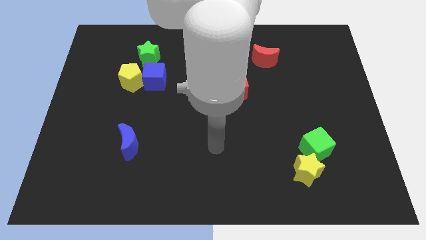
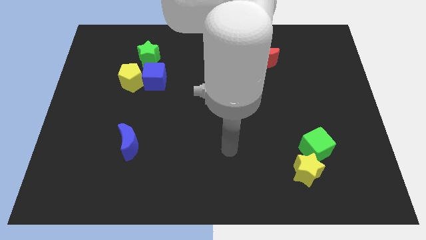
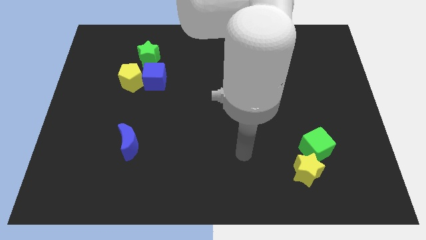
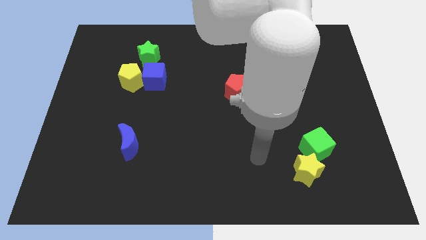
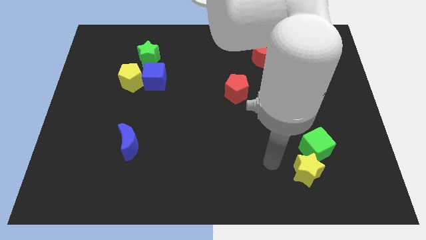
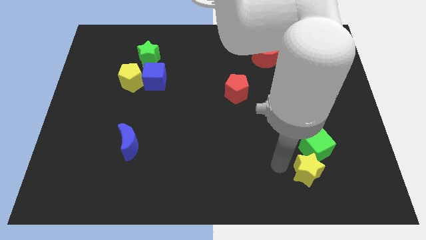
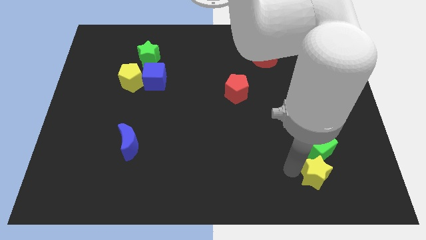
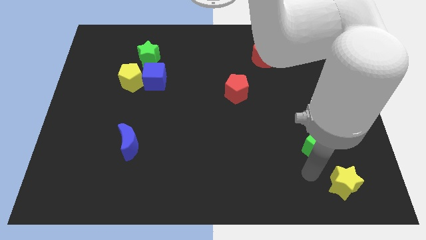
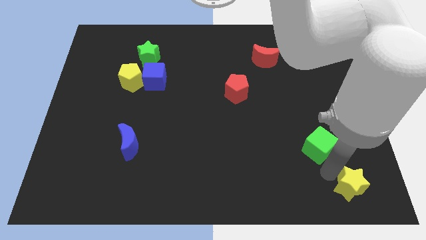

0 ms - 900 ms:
move the green cube away from the yellow star

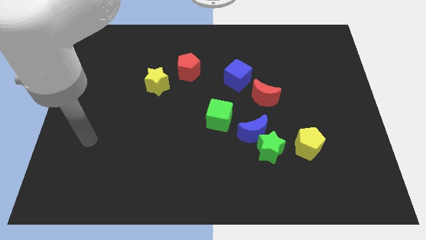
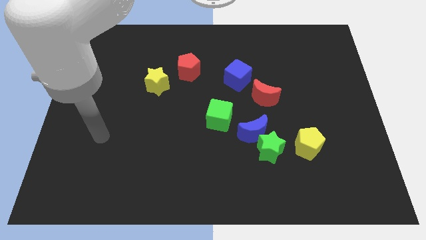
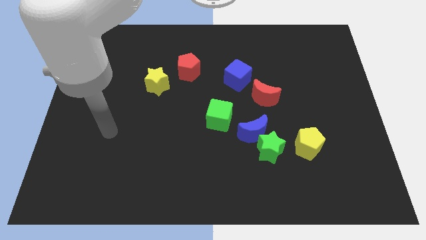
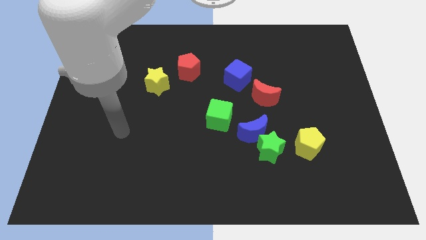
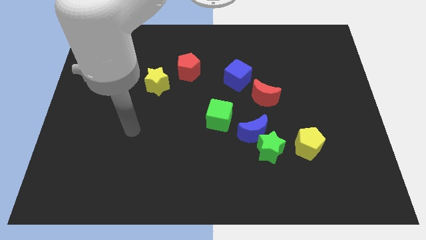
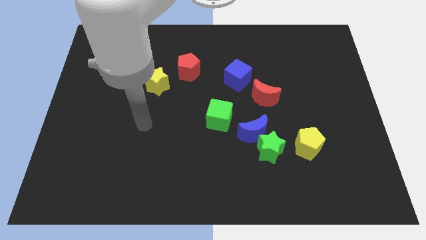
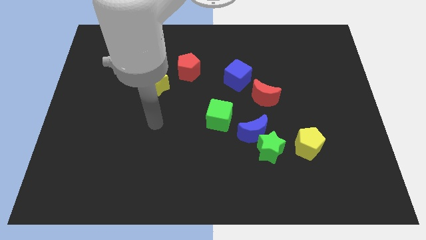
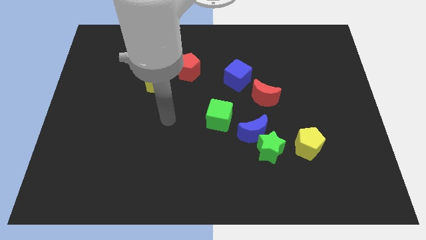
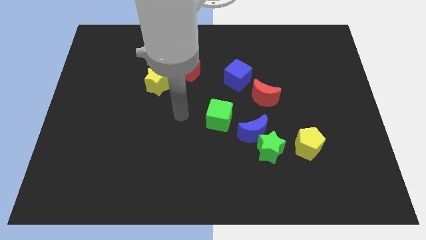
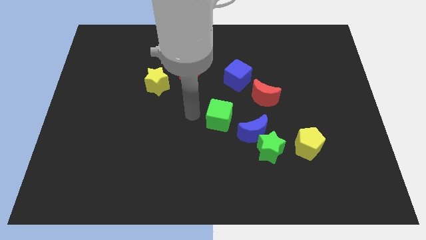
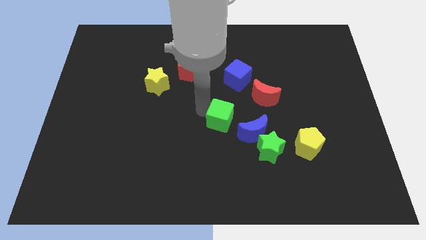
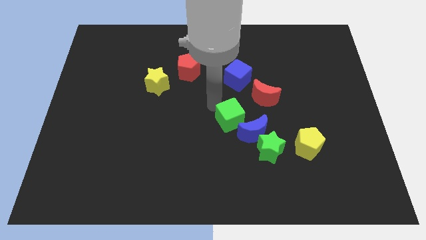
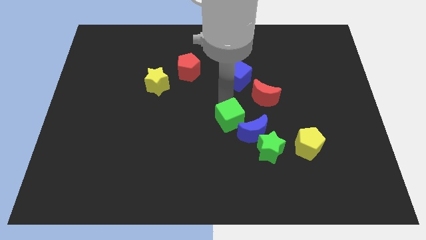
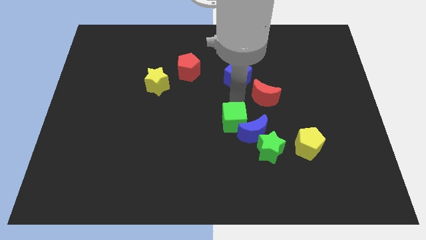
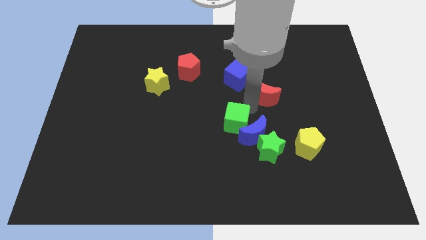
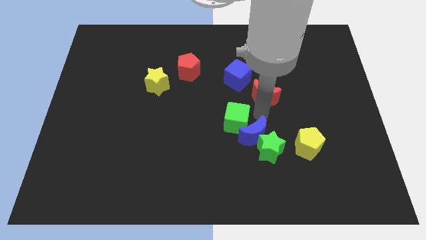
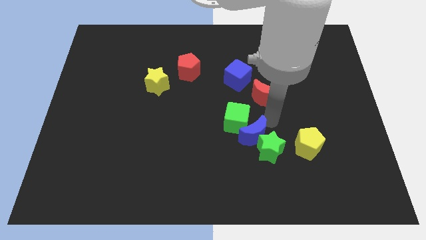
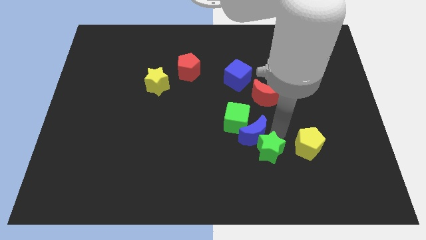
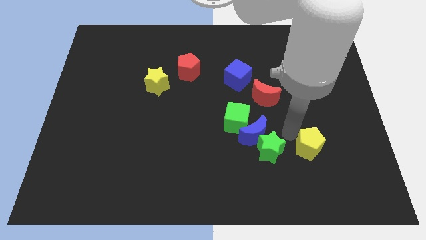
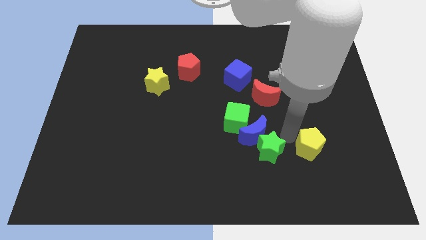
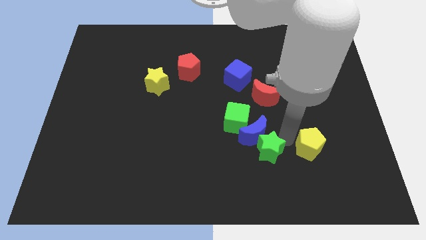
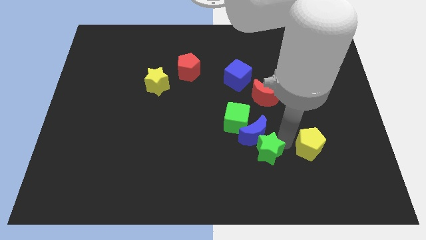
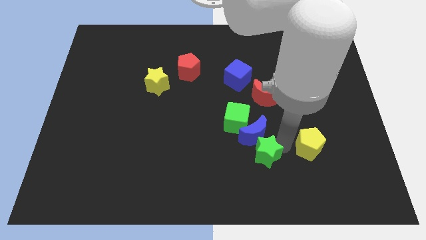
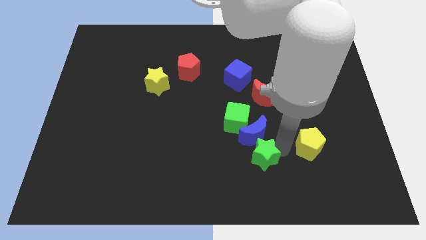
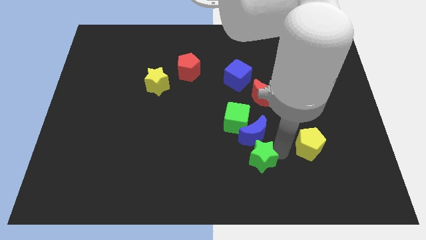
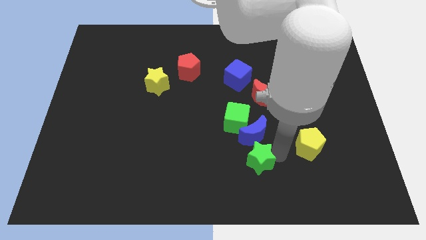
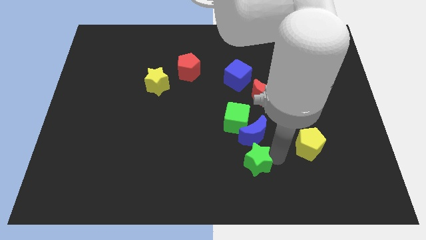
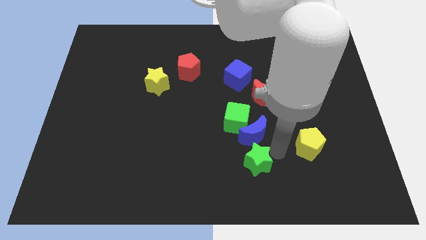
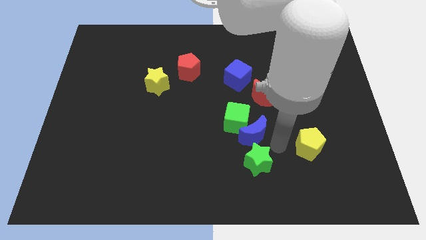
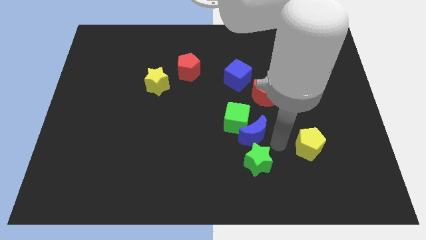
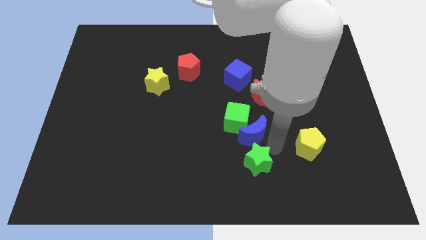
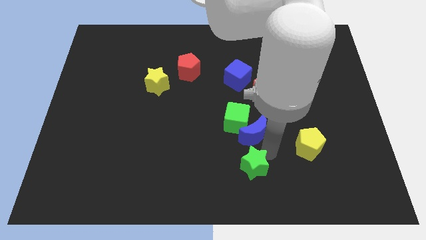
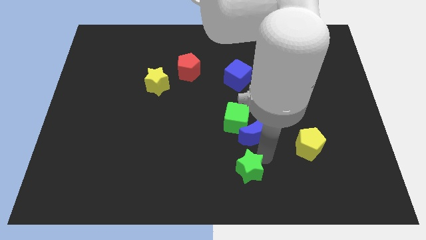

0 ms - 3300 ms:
move the green star away from the blue moon and yellow pentagon

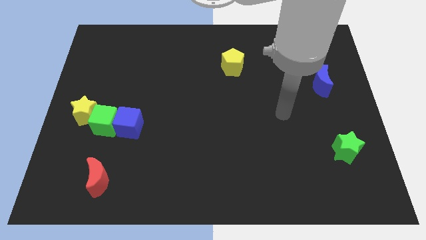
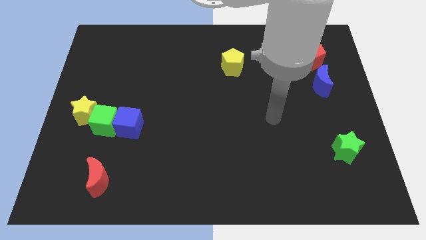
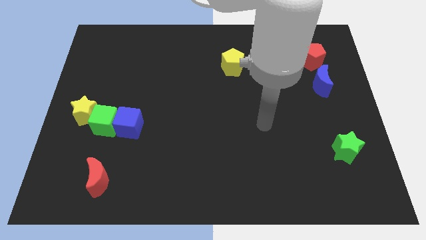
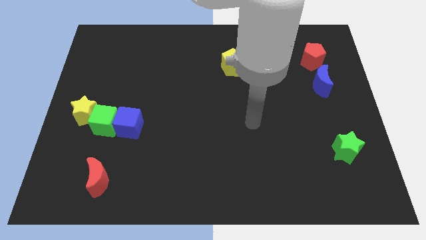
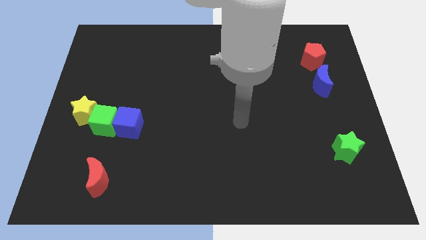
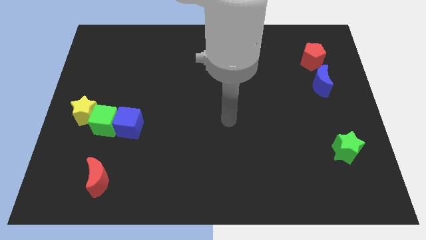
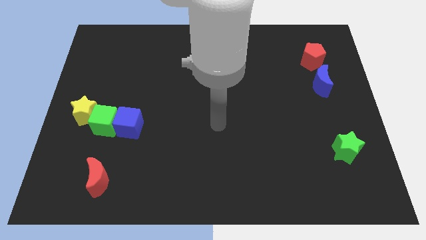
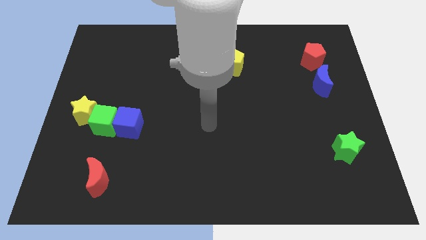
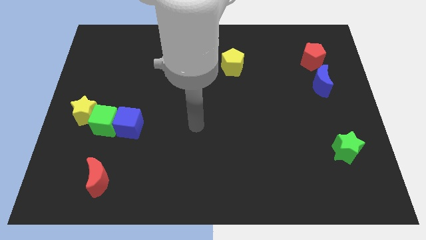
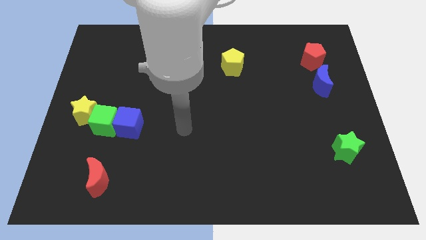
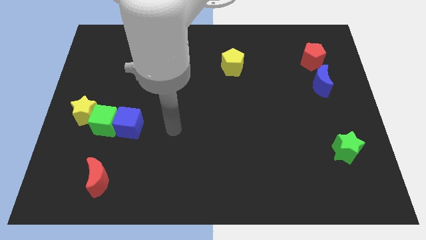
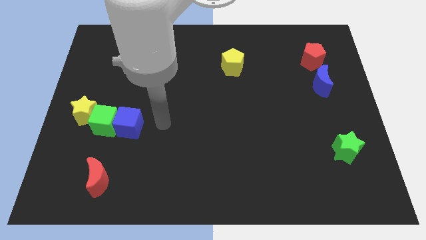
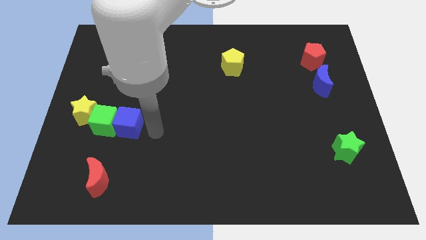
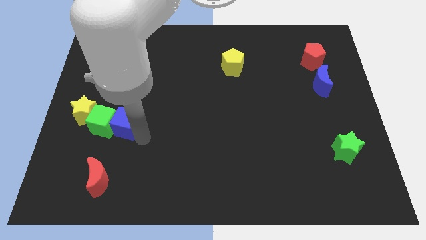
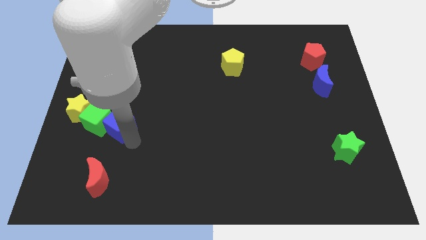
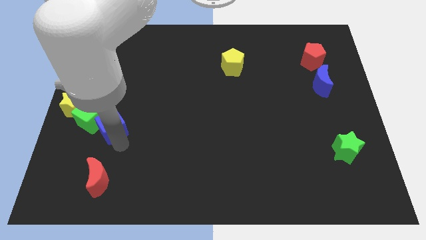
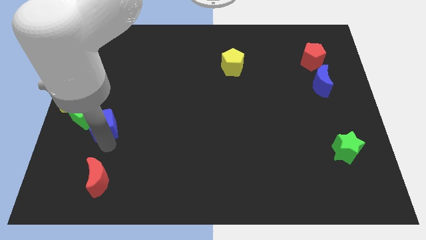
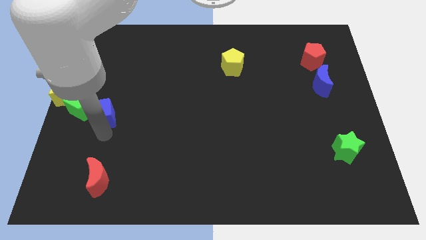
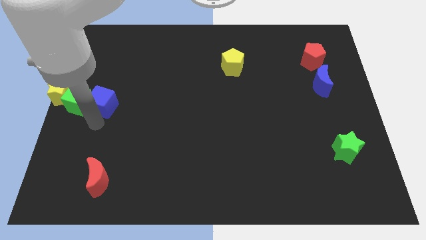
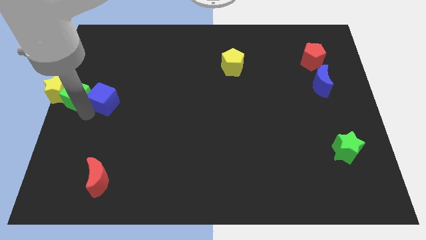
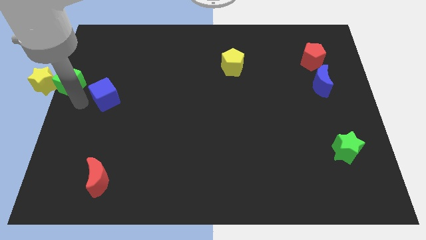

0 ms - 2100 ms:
move the blue cube away from the green cube

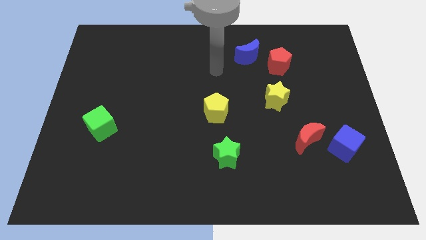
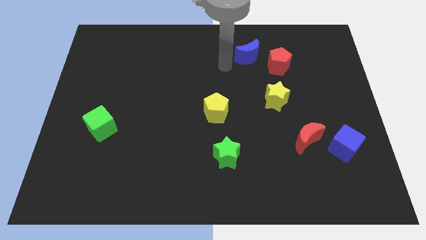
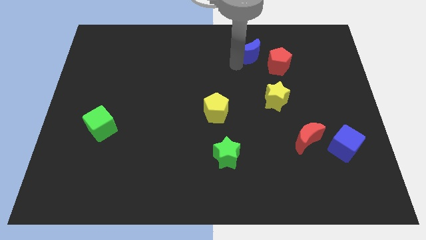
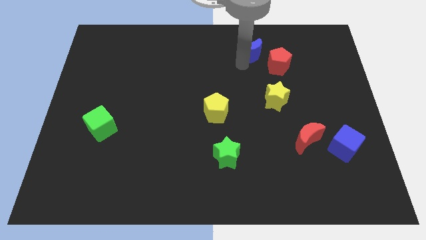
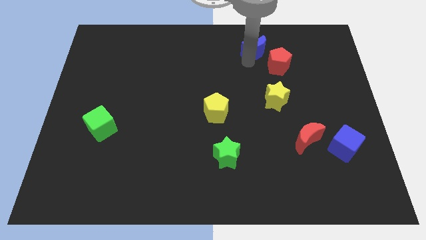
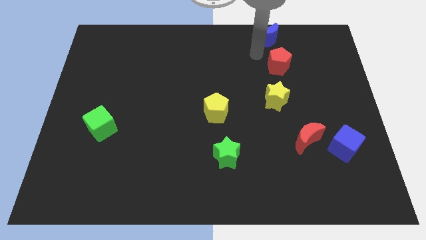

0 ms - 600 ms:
pull the red pentagon apart from the blue moon

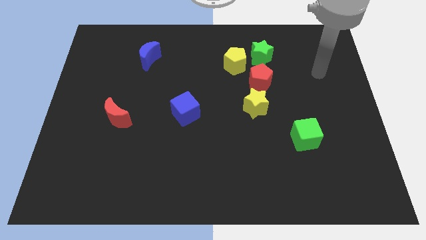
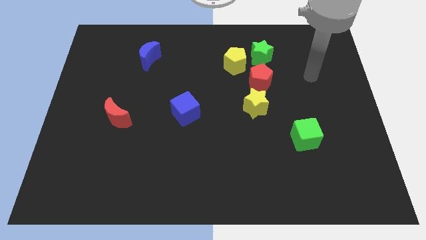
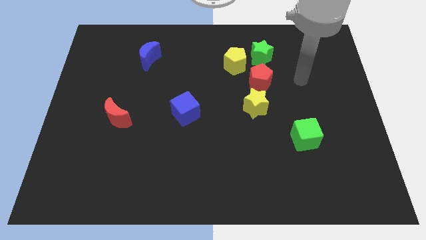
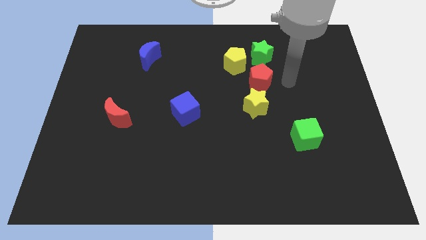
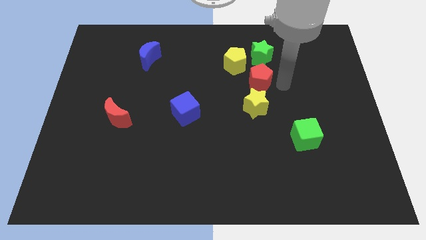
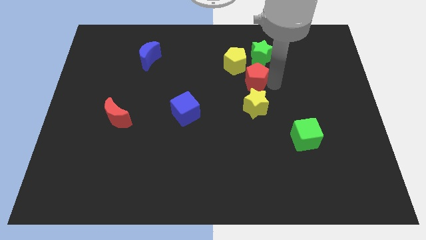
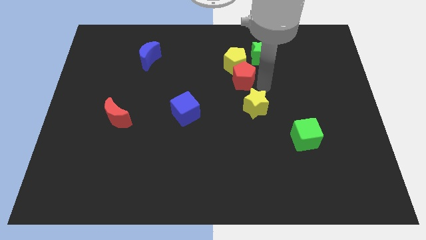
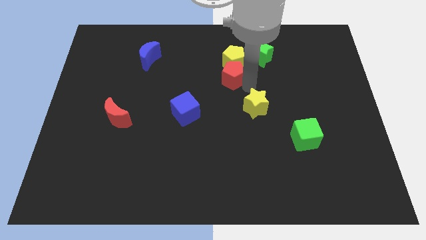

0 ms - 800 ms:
pull the yellow star apart from the red pentagon

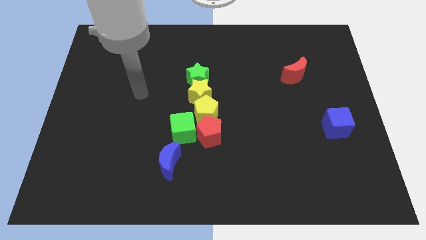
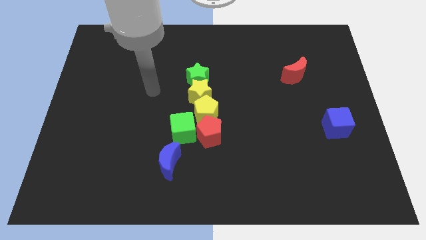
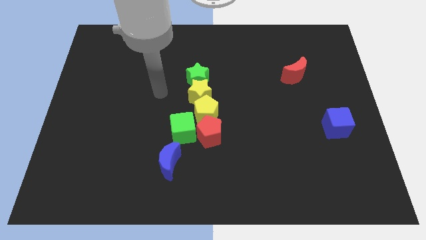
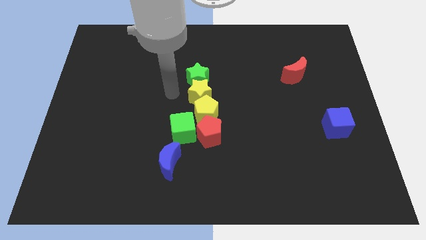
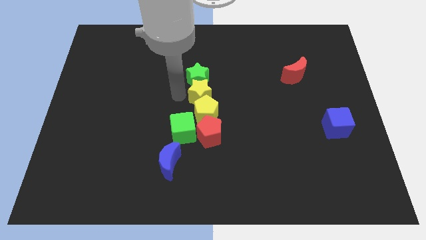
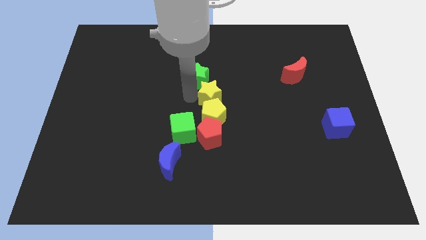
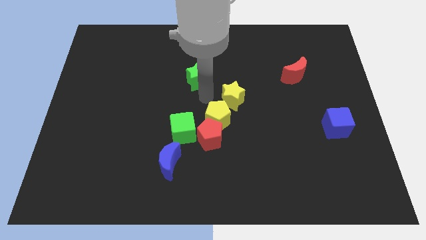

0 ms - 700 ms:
separate the green star from the yellow star

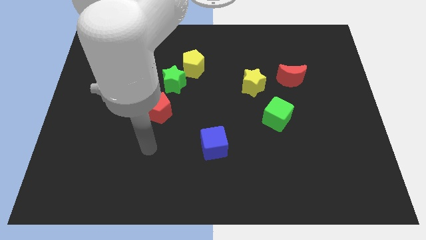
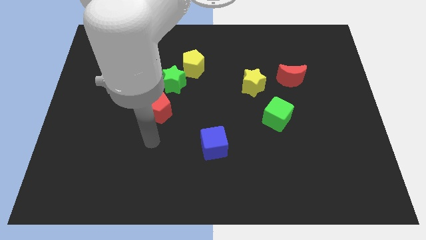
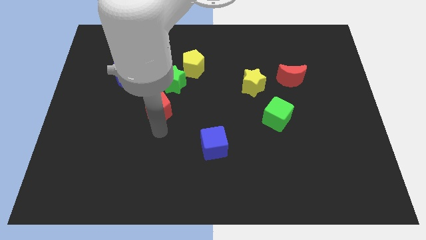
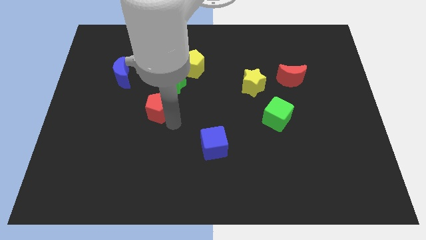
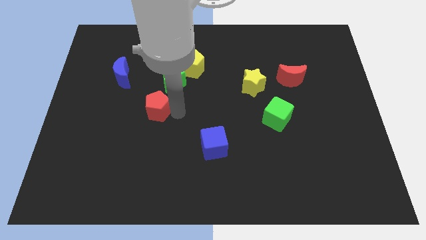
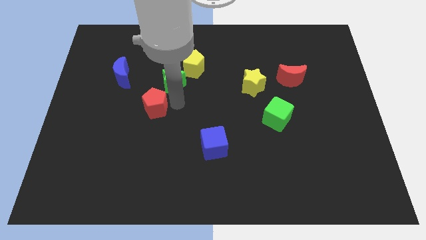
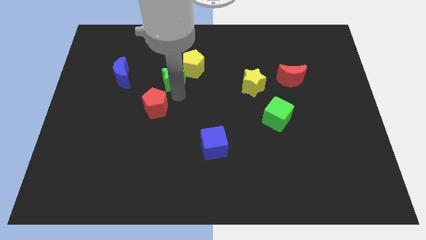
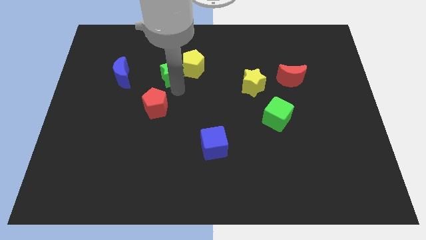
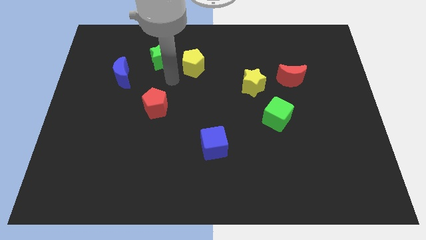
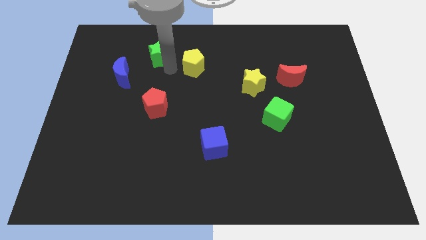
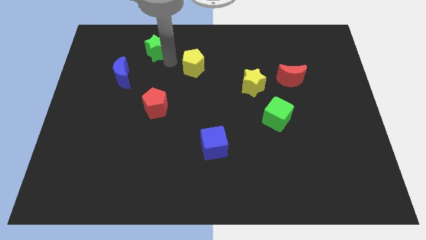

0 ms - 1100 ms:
pull the yellow pentagon apart from the green star
